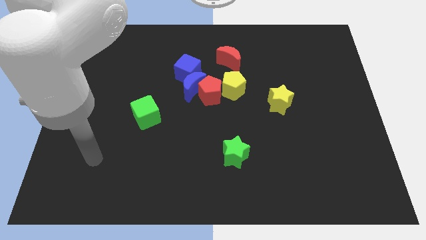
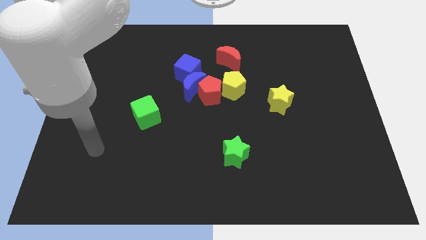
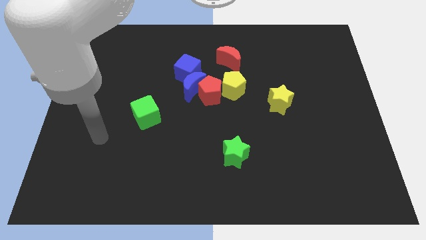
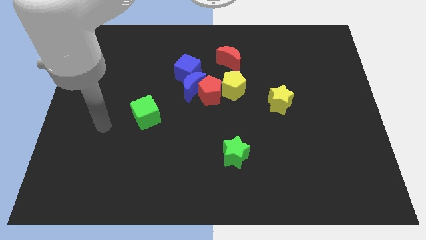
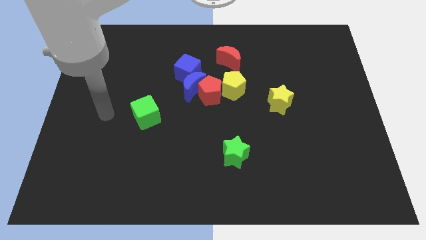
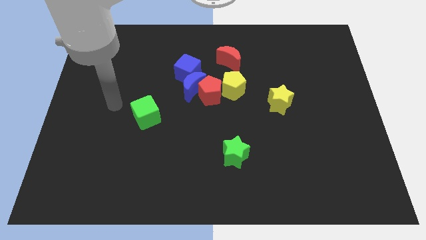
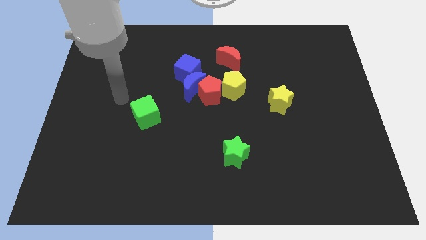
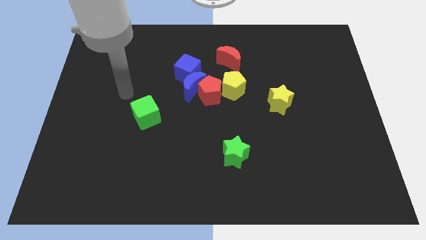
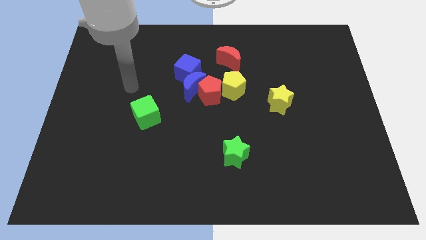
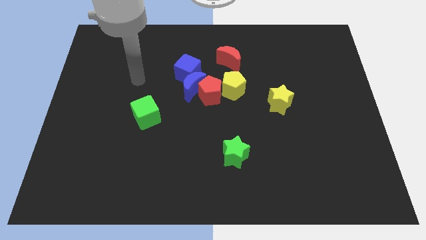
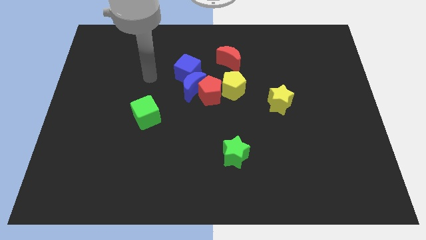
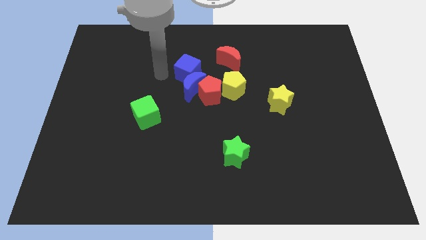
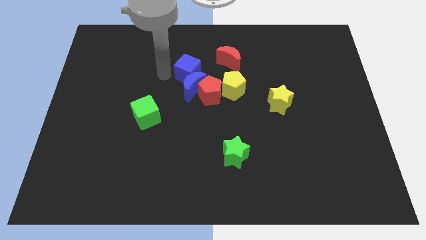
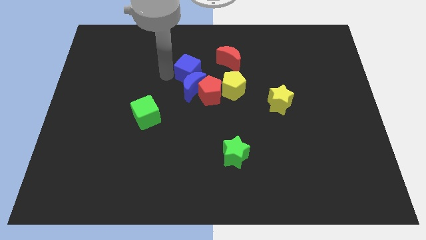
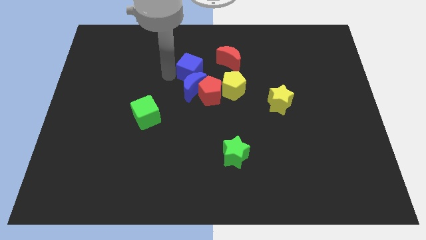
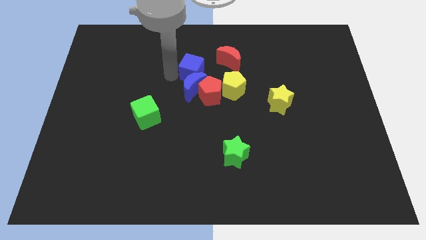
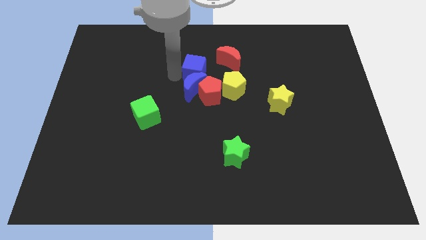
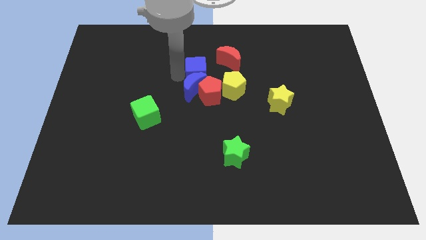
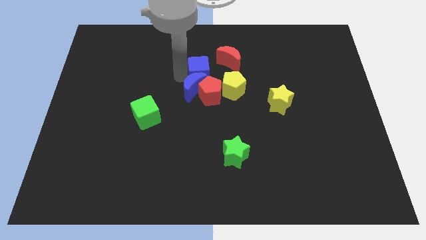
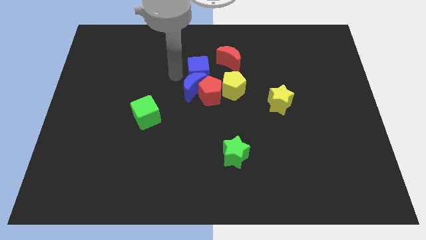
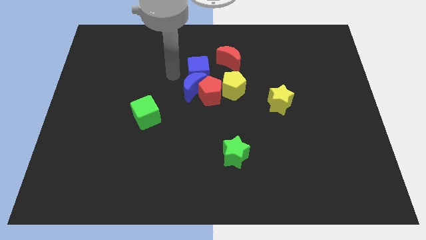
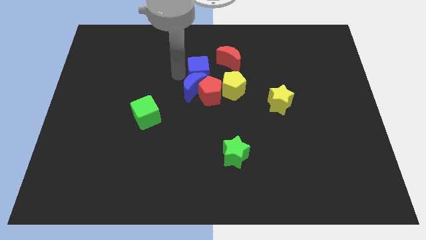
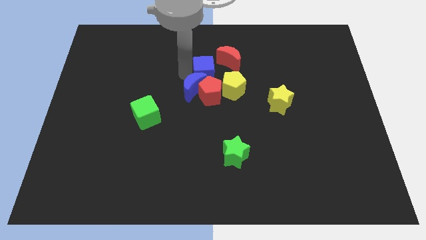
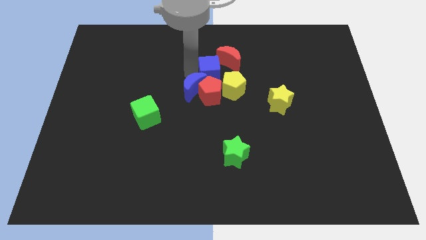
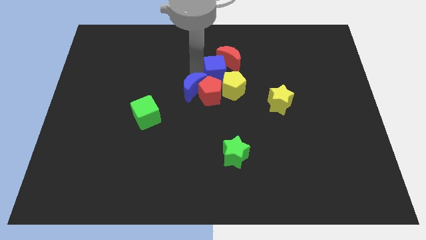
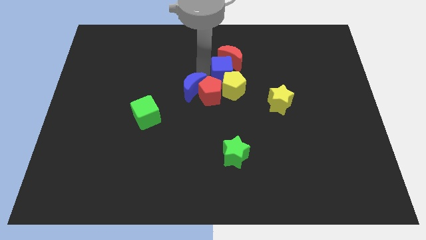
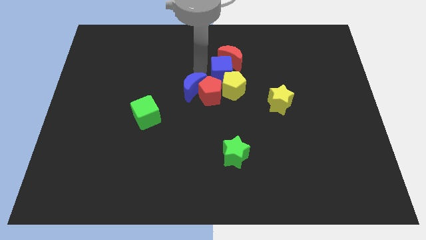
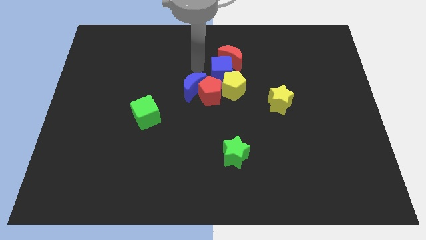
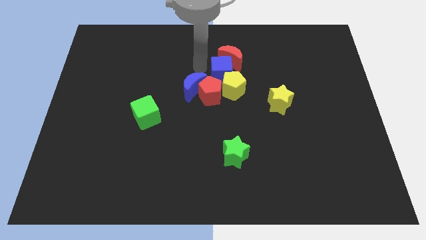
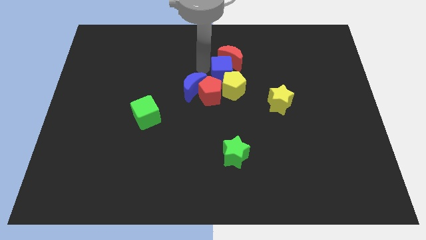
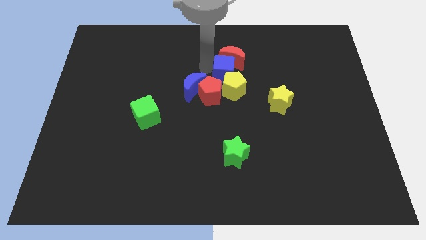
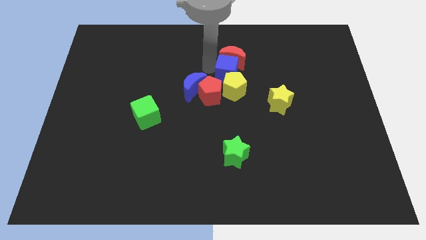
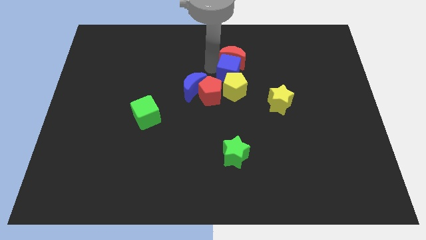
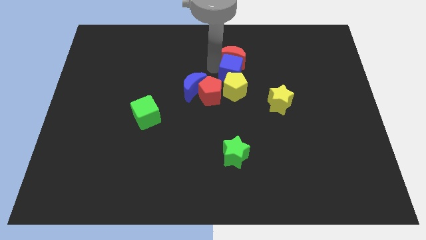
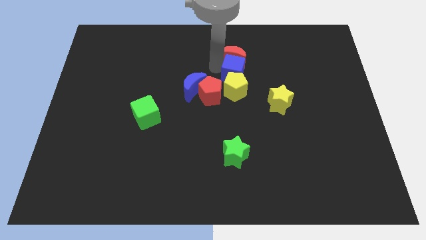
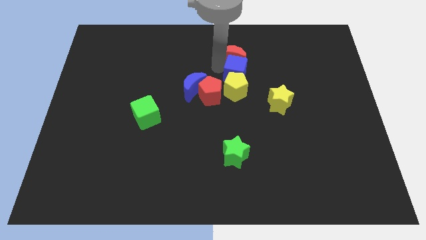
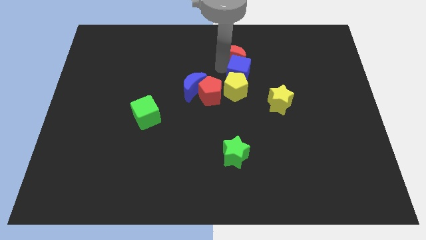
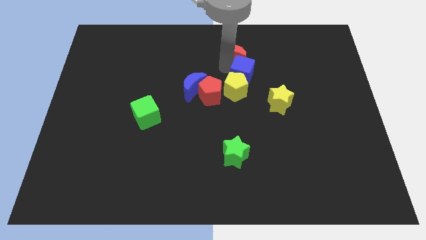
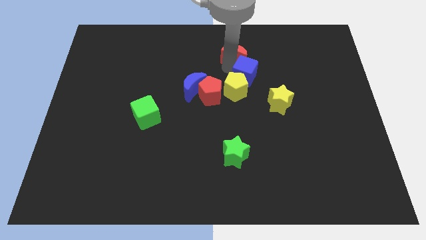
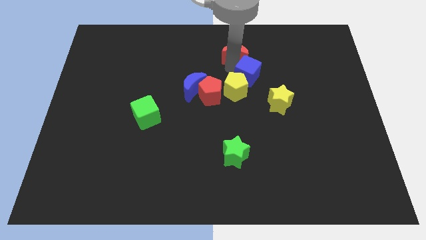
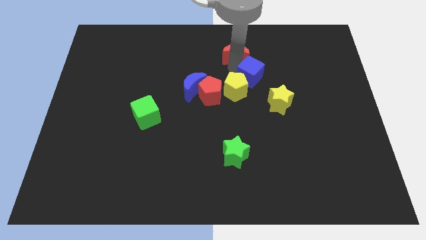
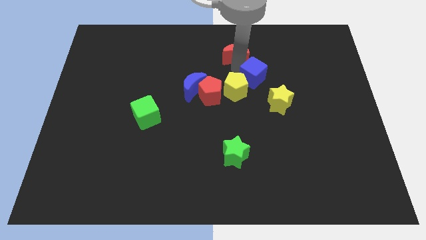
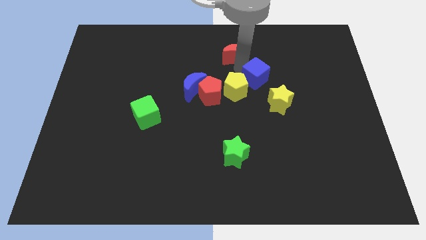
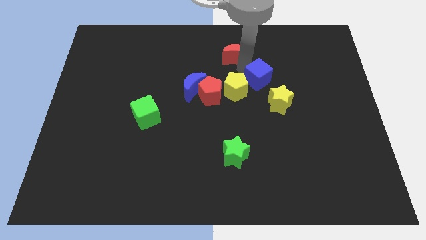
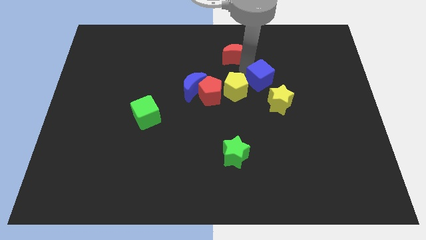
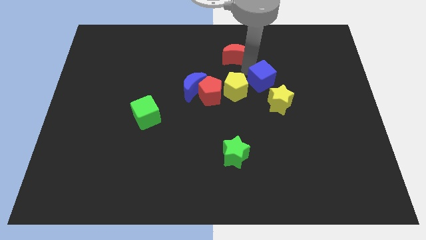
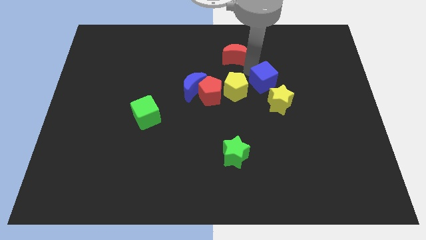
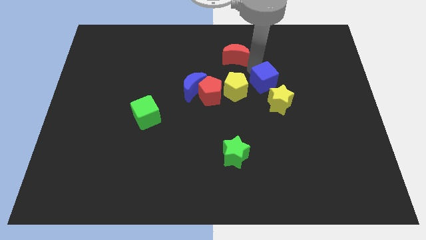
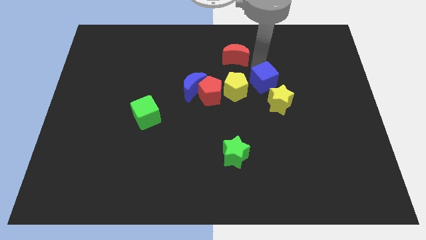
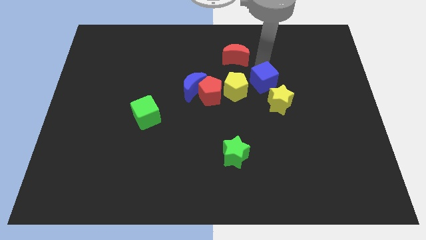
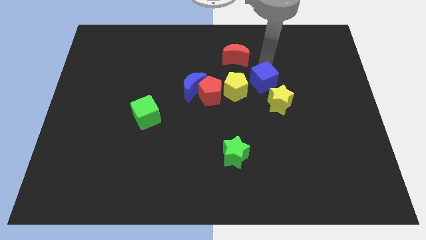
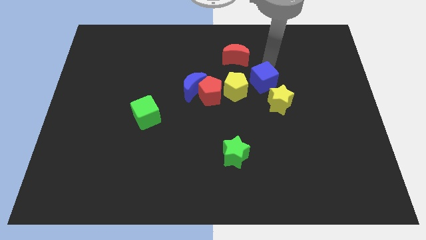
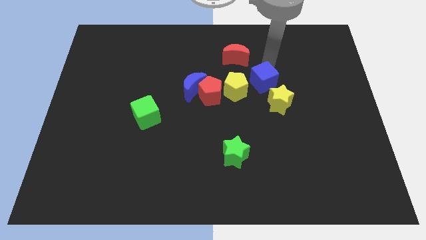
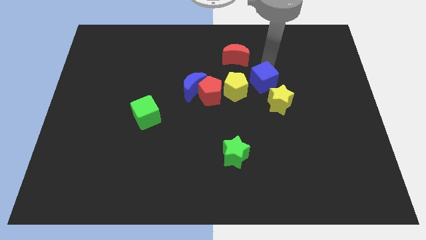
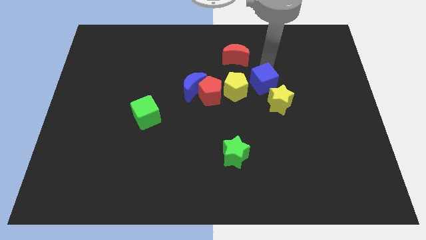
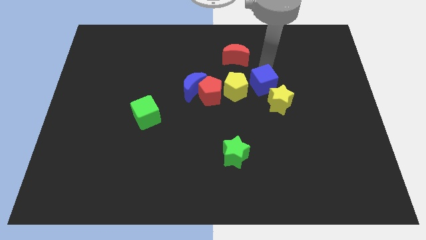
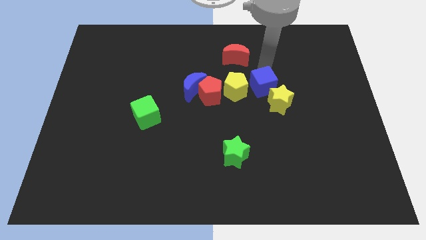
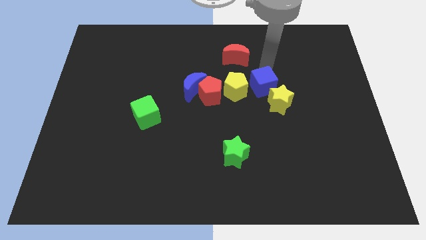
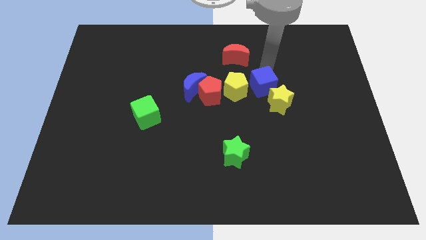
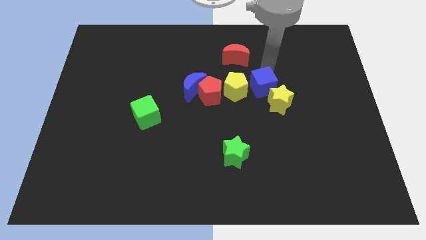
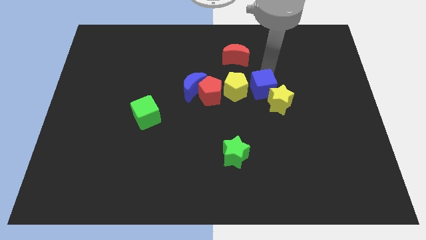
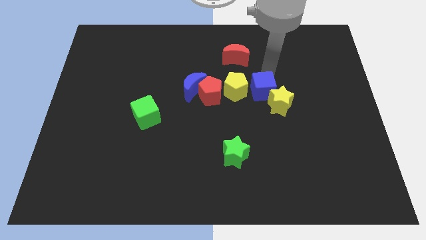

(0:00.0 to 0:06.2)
put the blue cube diagonally down and to the right of the yellow pentagon
